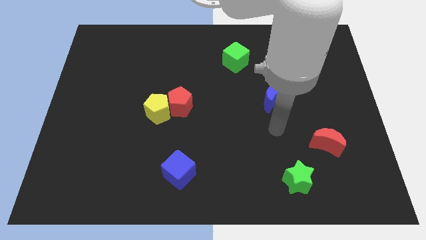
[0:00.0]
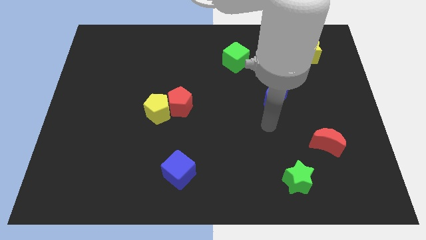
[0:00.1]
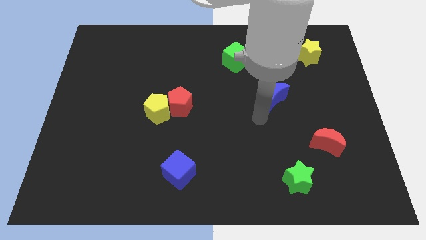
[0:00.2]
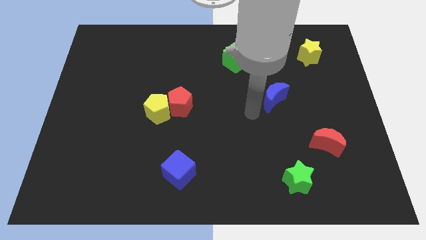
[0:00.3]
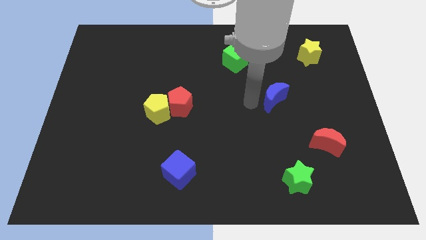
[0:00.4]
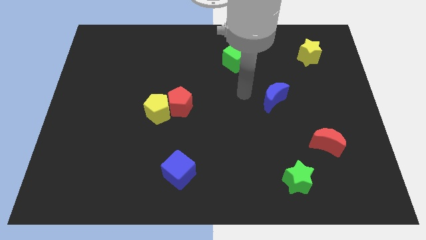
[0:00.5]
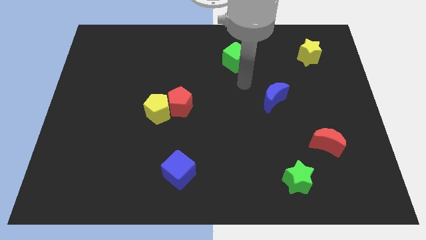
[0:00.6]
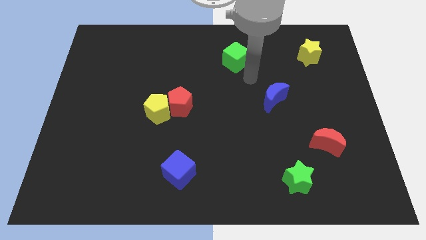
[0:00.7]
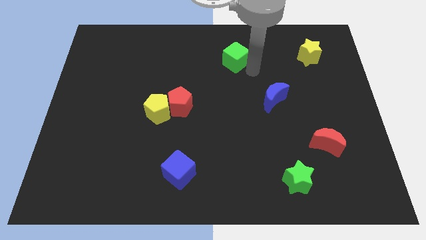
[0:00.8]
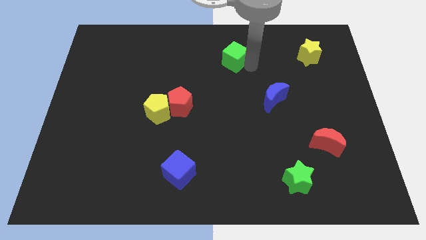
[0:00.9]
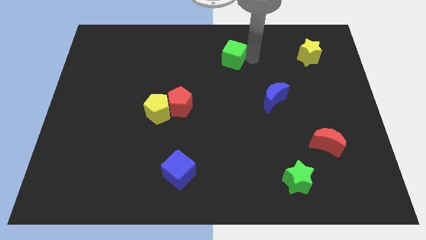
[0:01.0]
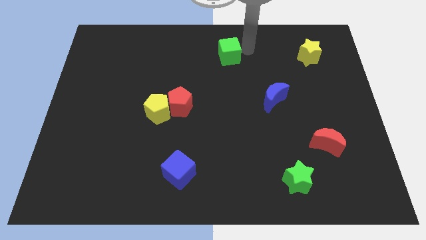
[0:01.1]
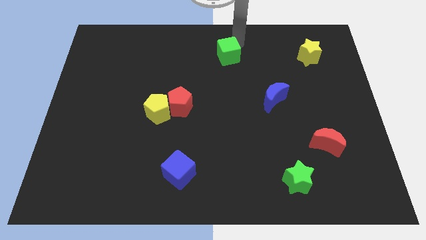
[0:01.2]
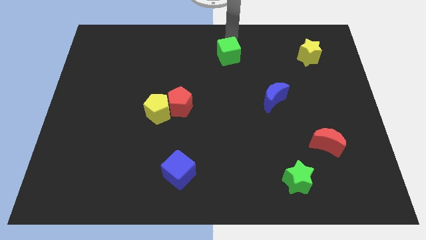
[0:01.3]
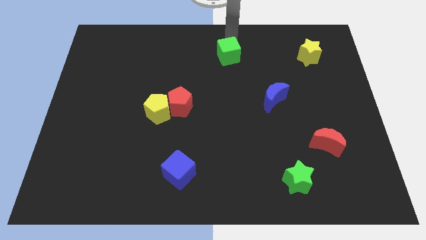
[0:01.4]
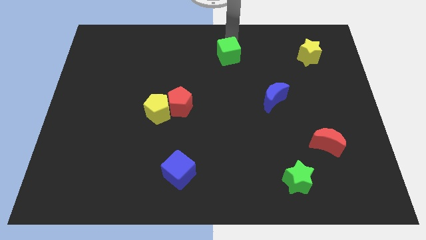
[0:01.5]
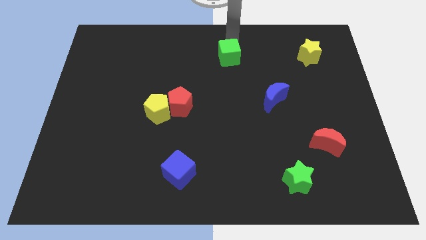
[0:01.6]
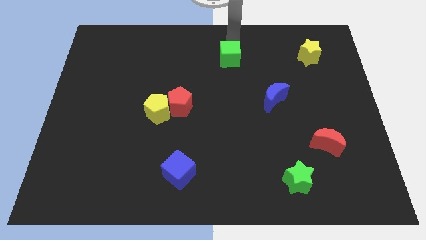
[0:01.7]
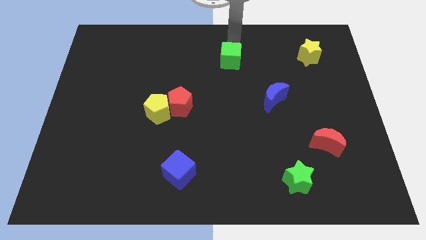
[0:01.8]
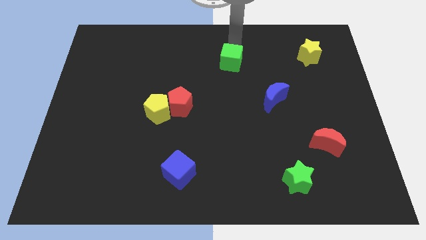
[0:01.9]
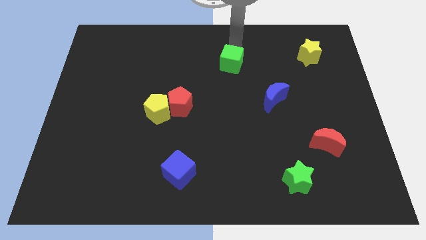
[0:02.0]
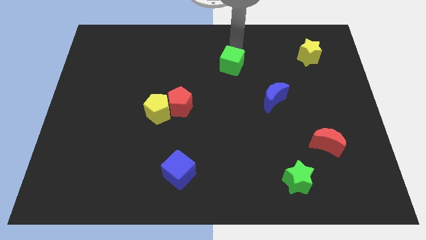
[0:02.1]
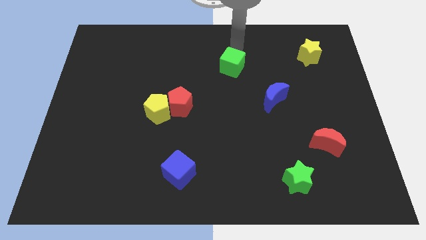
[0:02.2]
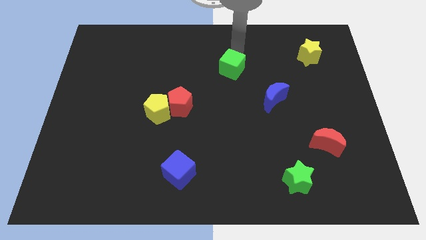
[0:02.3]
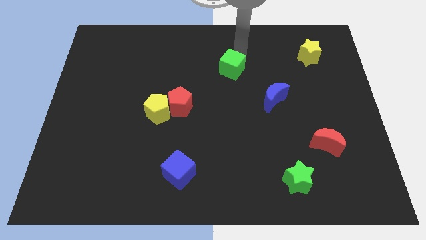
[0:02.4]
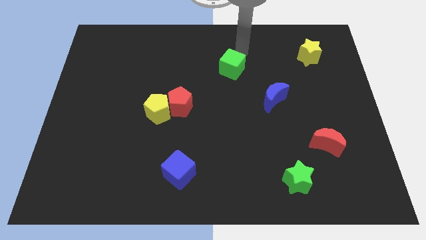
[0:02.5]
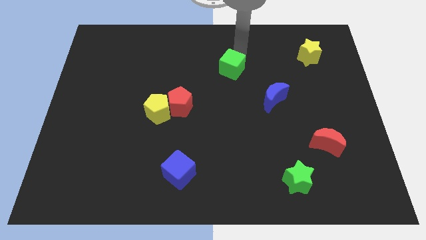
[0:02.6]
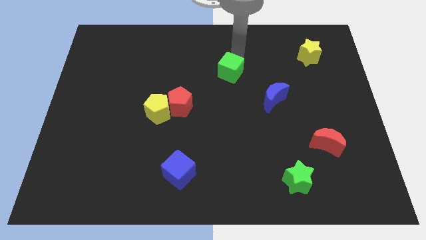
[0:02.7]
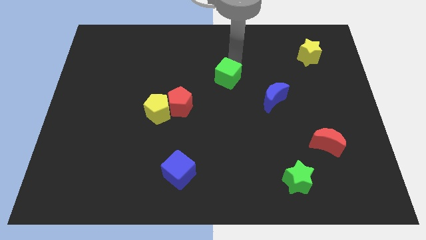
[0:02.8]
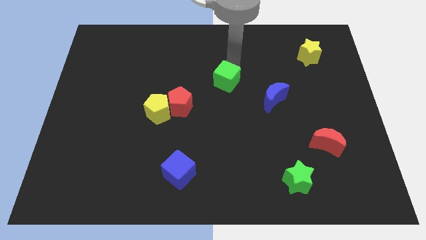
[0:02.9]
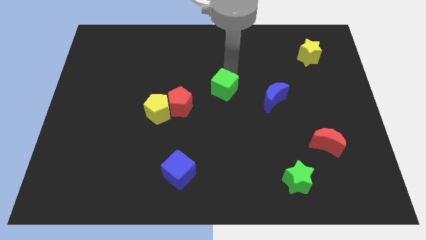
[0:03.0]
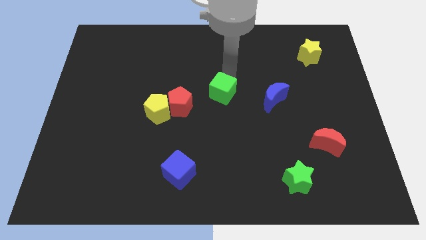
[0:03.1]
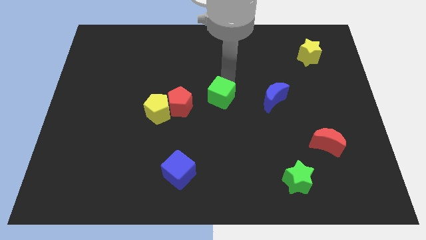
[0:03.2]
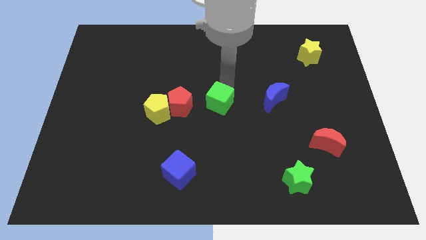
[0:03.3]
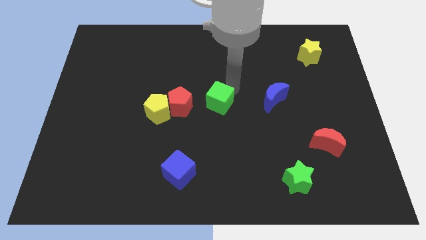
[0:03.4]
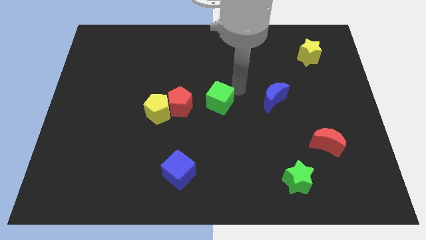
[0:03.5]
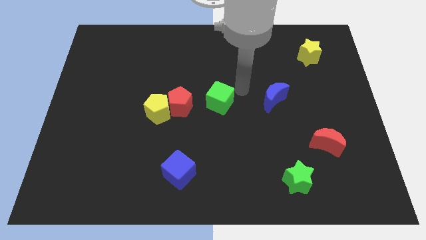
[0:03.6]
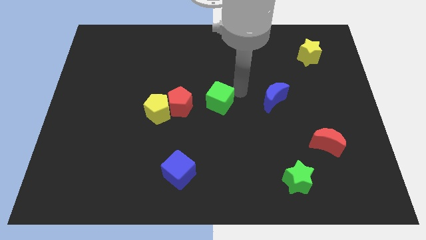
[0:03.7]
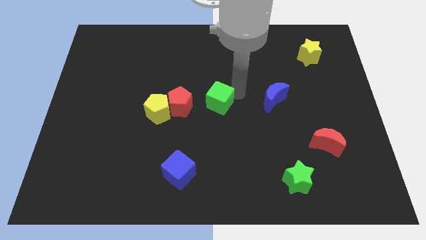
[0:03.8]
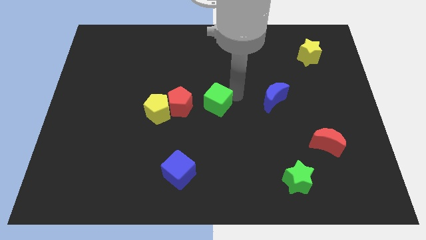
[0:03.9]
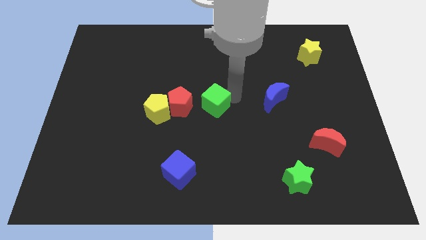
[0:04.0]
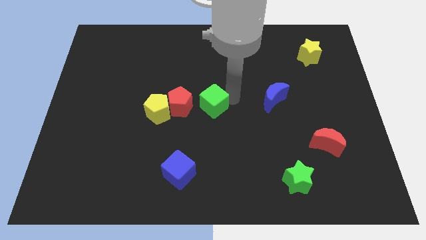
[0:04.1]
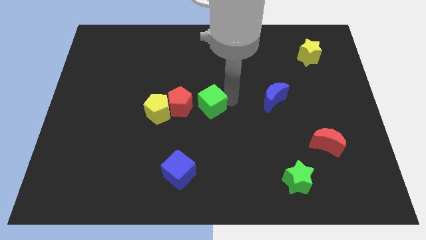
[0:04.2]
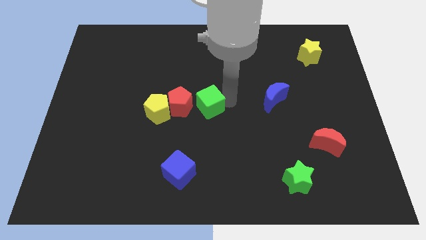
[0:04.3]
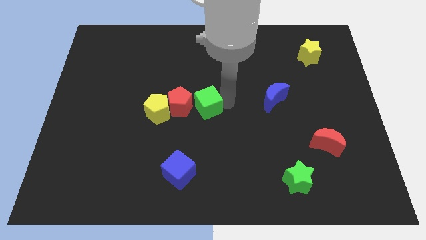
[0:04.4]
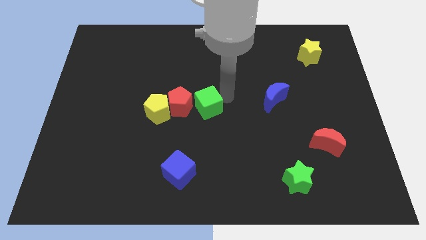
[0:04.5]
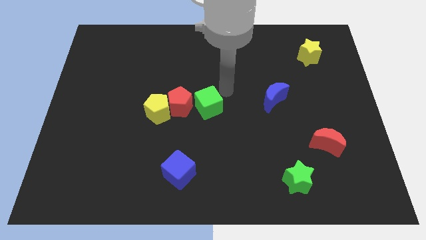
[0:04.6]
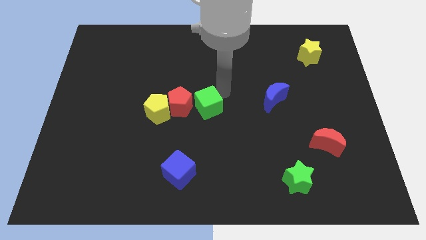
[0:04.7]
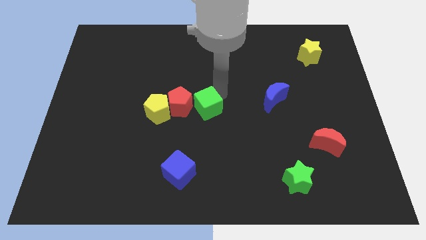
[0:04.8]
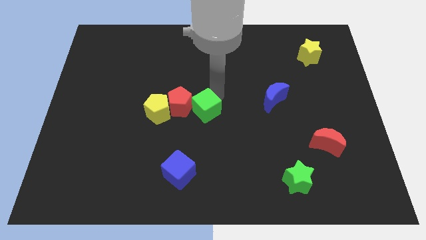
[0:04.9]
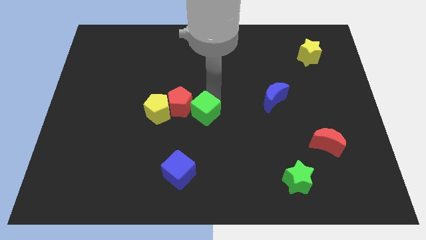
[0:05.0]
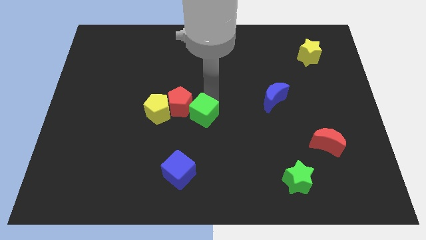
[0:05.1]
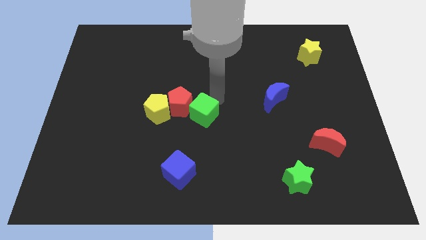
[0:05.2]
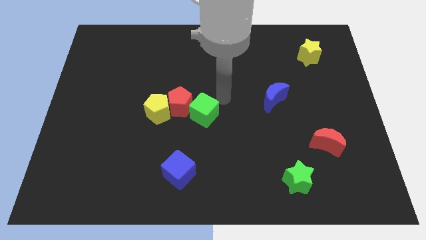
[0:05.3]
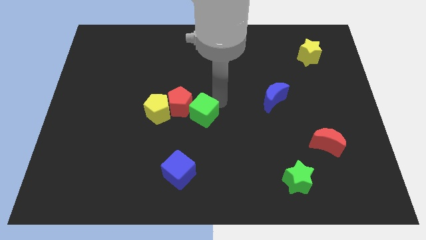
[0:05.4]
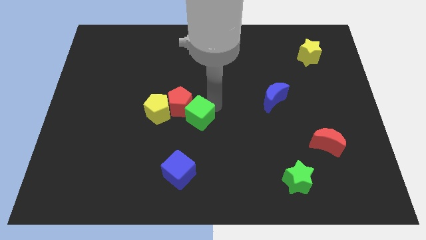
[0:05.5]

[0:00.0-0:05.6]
put the green cube to the top side of the blue cube
